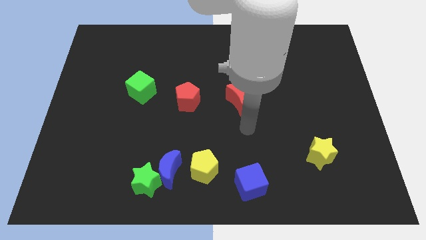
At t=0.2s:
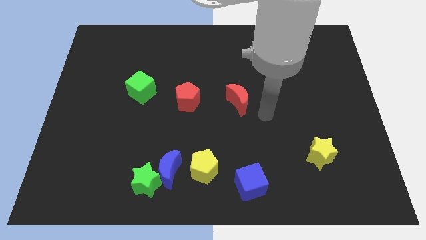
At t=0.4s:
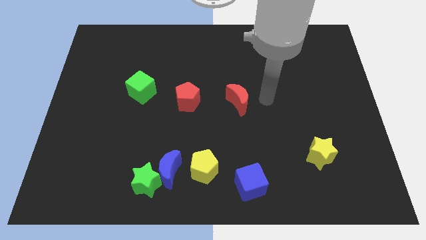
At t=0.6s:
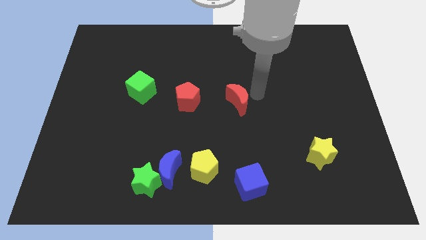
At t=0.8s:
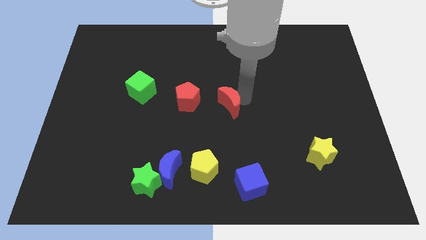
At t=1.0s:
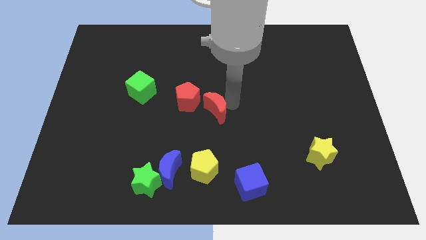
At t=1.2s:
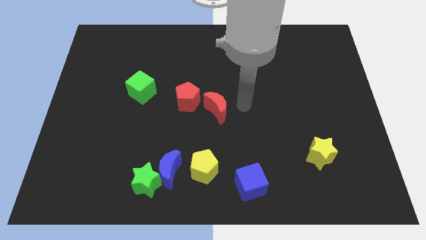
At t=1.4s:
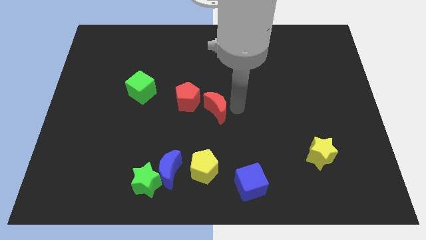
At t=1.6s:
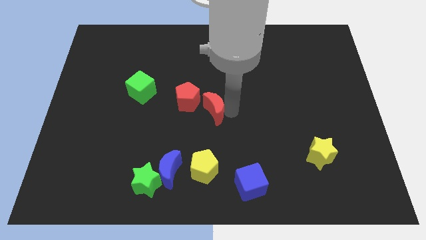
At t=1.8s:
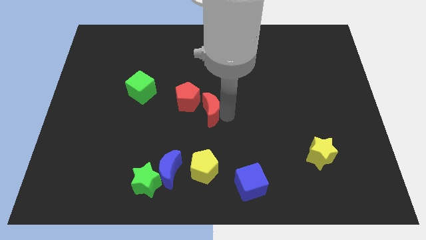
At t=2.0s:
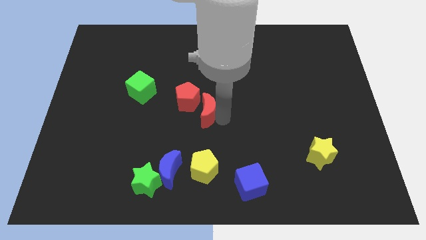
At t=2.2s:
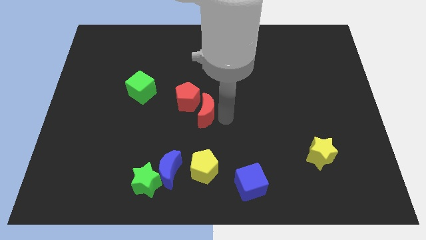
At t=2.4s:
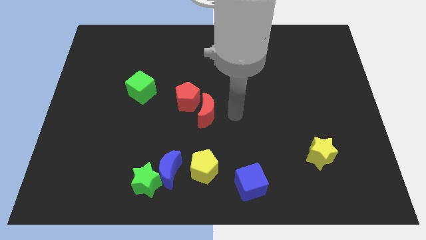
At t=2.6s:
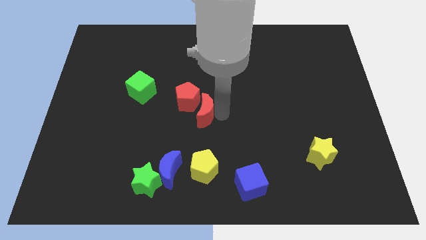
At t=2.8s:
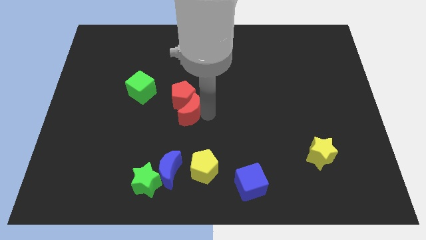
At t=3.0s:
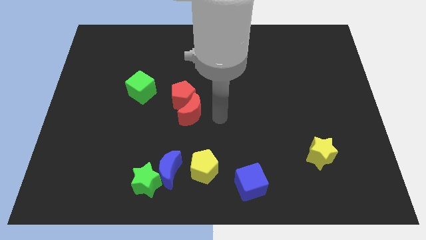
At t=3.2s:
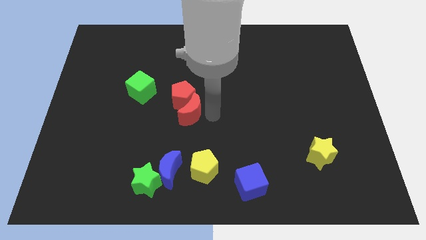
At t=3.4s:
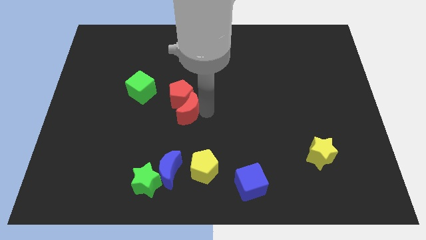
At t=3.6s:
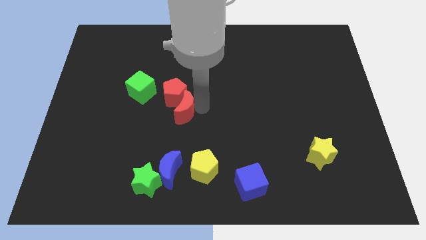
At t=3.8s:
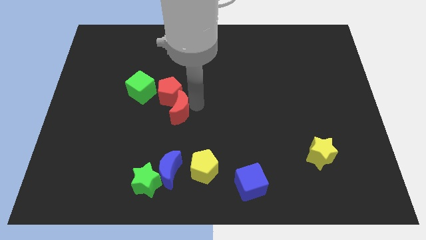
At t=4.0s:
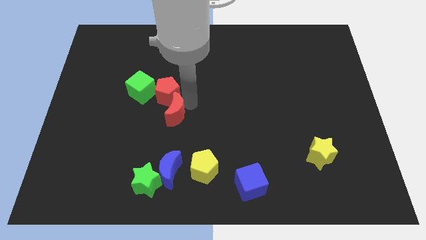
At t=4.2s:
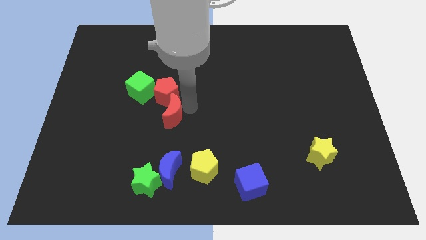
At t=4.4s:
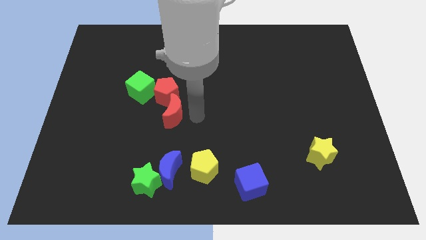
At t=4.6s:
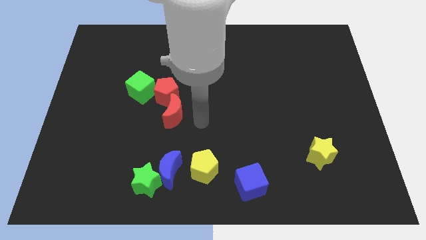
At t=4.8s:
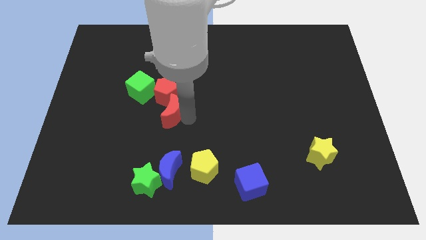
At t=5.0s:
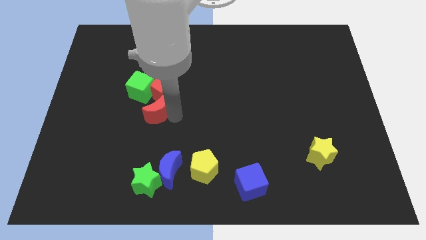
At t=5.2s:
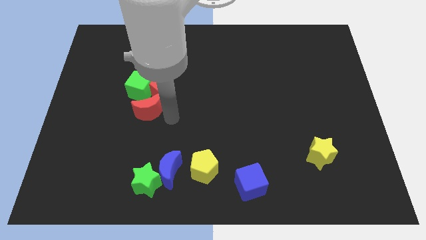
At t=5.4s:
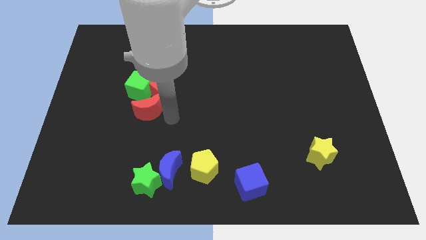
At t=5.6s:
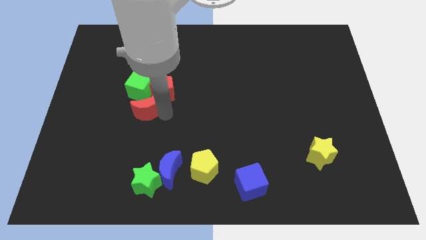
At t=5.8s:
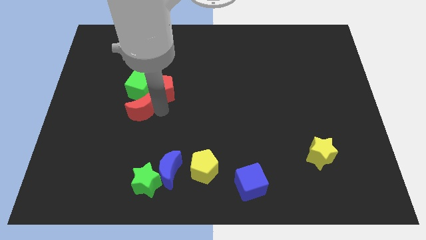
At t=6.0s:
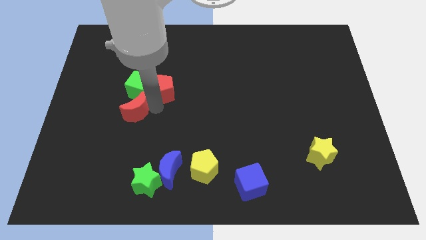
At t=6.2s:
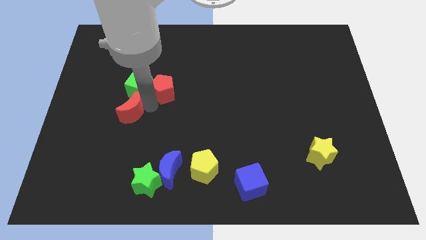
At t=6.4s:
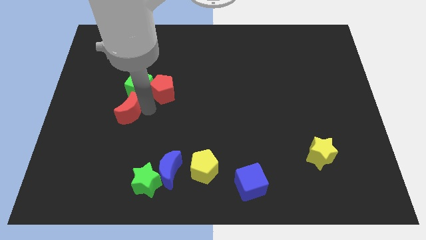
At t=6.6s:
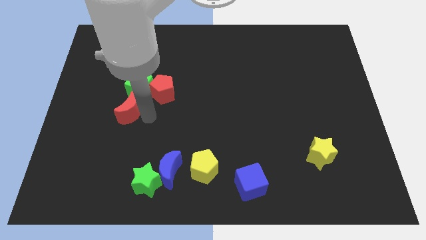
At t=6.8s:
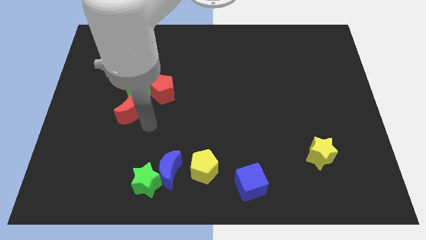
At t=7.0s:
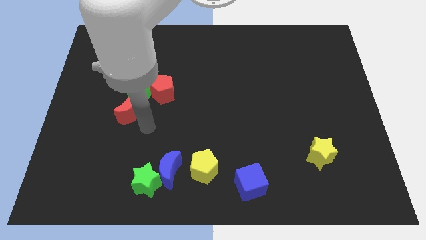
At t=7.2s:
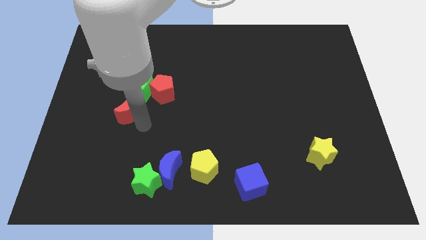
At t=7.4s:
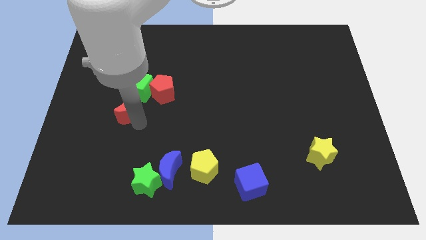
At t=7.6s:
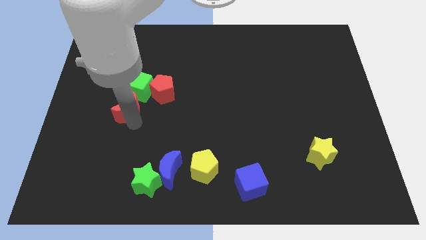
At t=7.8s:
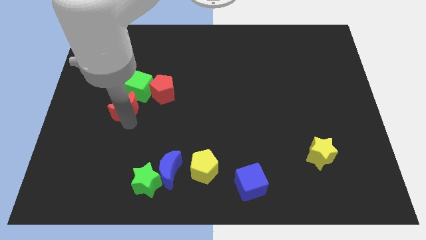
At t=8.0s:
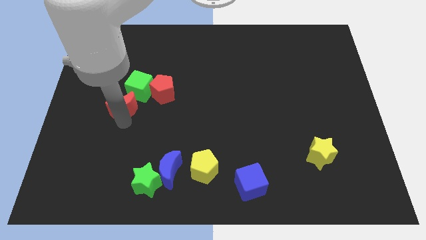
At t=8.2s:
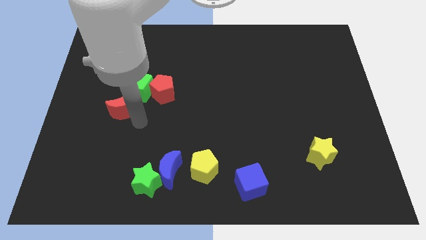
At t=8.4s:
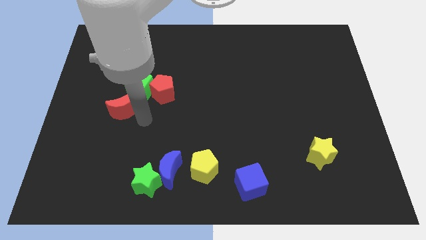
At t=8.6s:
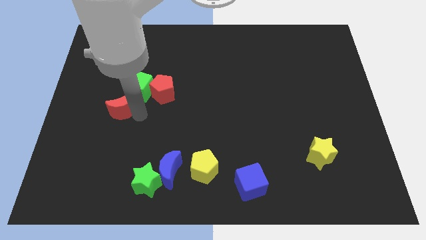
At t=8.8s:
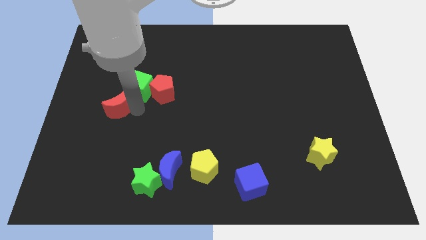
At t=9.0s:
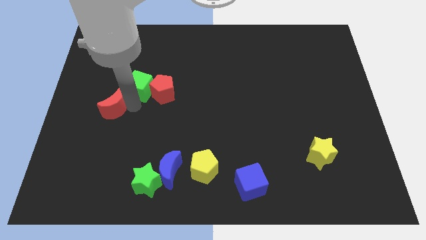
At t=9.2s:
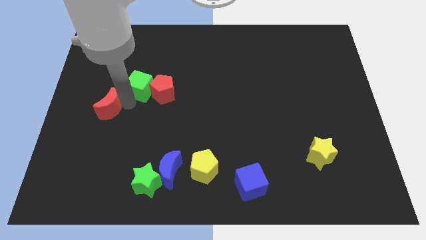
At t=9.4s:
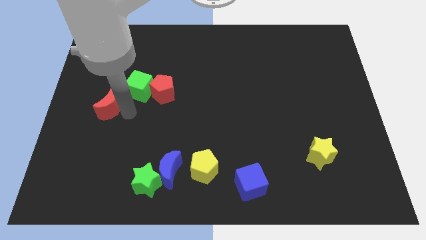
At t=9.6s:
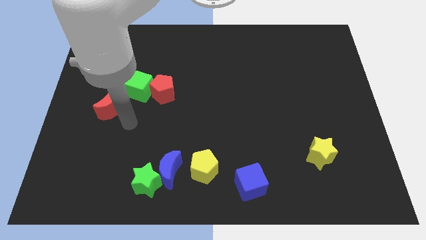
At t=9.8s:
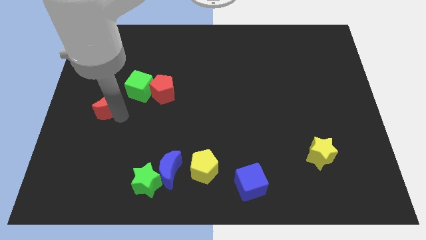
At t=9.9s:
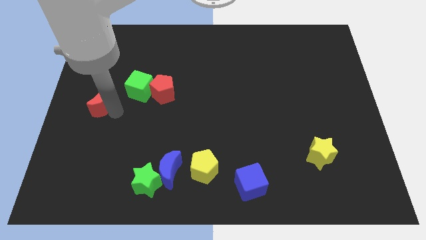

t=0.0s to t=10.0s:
move the red moon to the left side of the board

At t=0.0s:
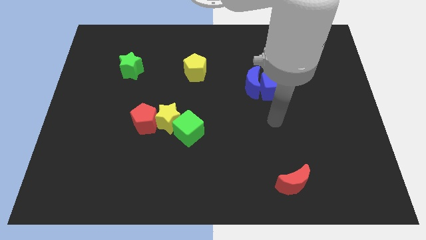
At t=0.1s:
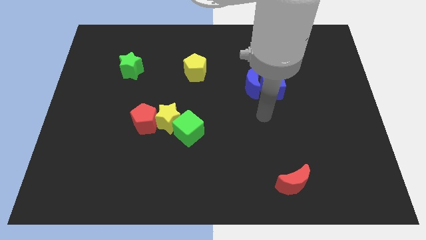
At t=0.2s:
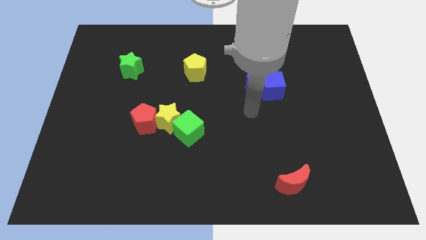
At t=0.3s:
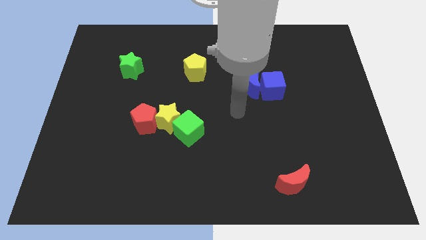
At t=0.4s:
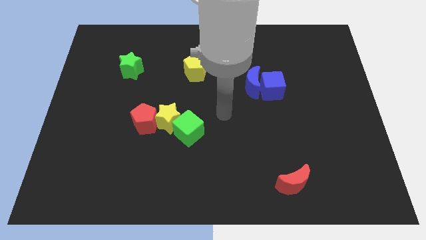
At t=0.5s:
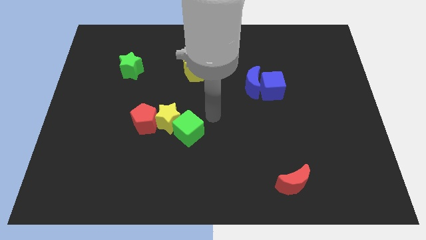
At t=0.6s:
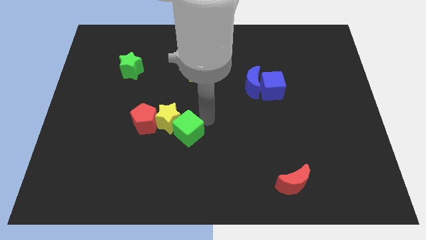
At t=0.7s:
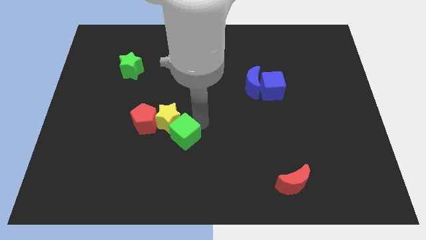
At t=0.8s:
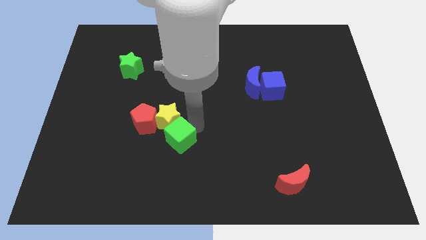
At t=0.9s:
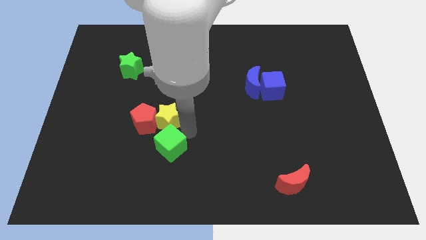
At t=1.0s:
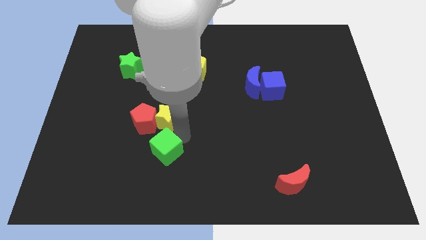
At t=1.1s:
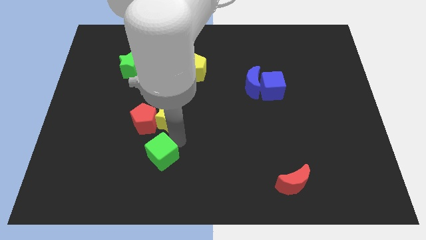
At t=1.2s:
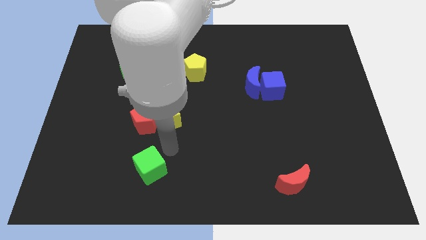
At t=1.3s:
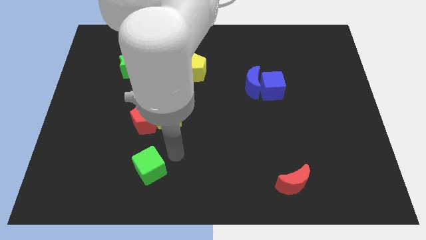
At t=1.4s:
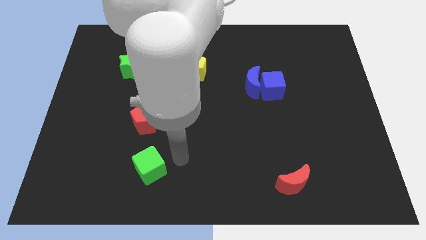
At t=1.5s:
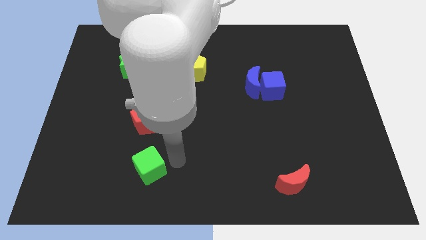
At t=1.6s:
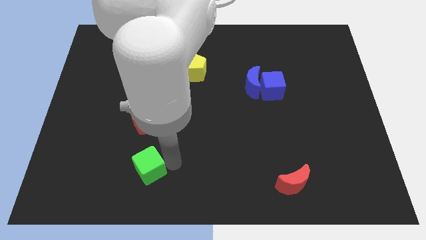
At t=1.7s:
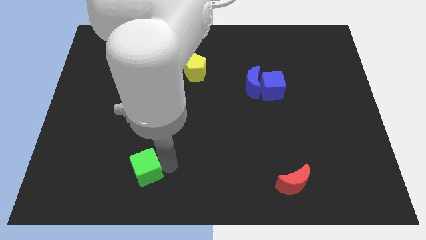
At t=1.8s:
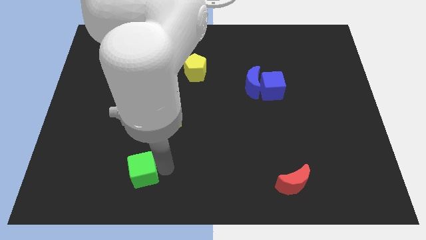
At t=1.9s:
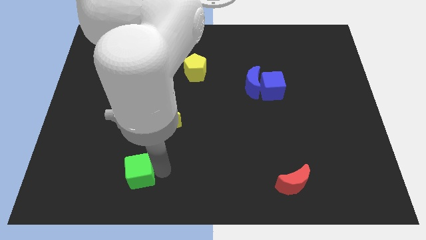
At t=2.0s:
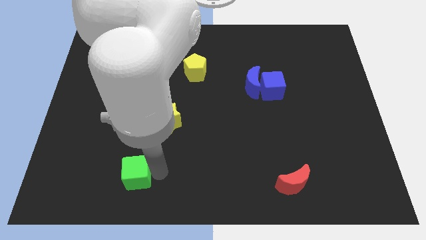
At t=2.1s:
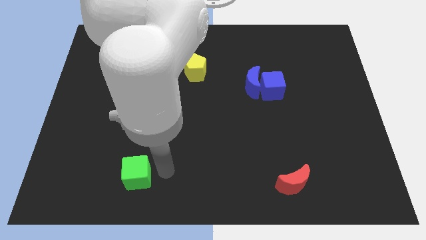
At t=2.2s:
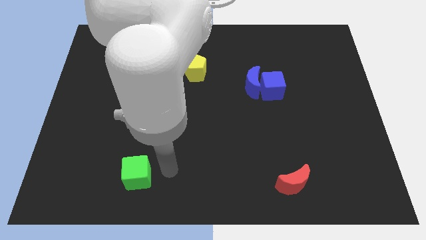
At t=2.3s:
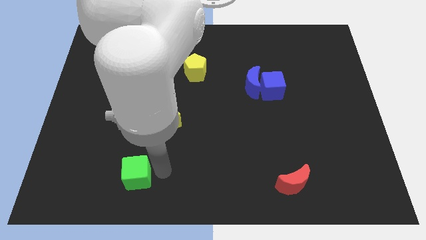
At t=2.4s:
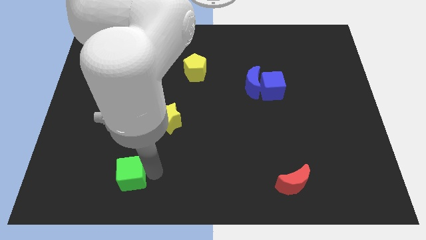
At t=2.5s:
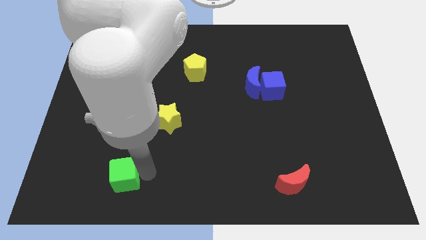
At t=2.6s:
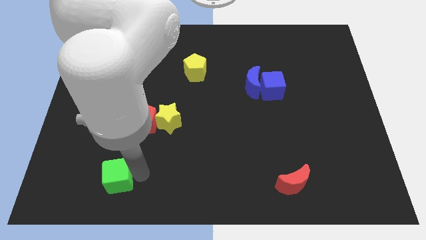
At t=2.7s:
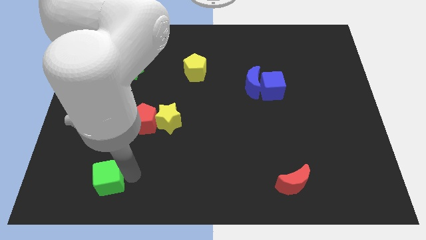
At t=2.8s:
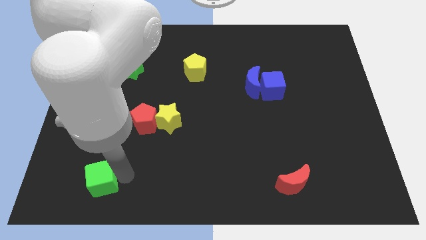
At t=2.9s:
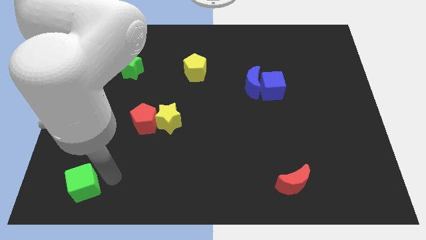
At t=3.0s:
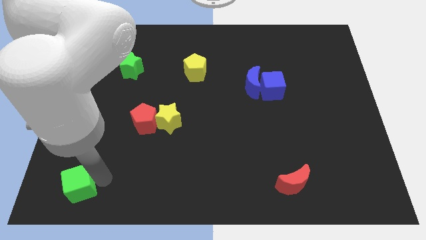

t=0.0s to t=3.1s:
push the green cube to the bottom left of the board
